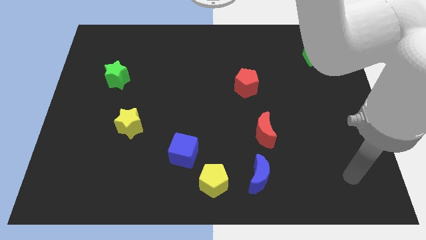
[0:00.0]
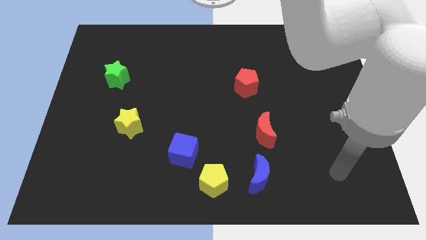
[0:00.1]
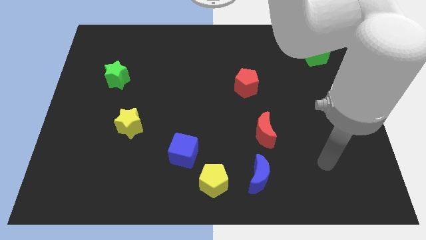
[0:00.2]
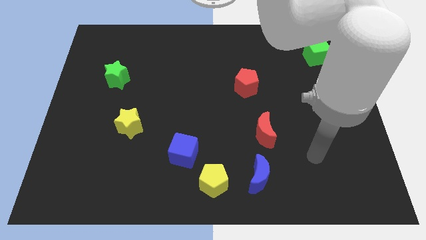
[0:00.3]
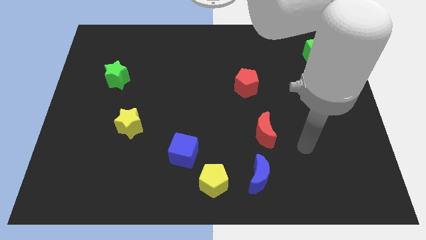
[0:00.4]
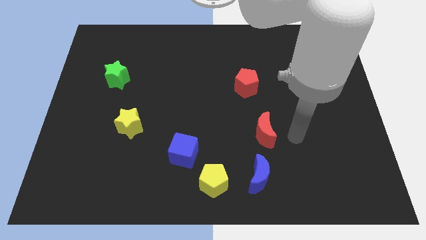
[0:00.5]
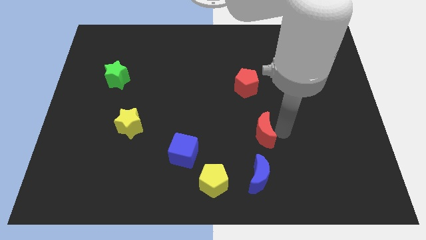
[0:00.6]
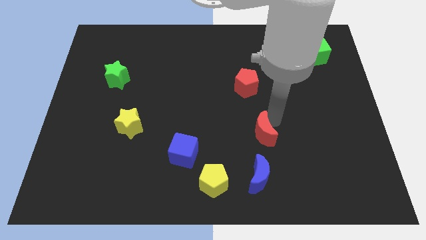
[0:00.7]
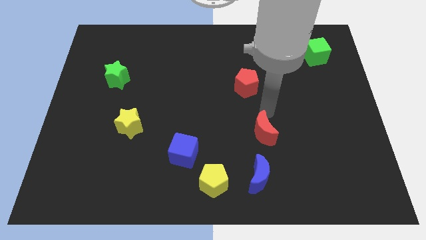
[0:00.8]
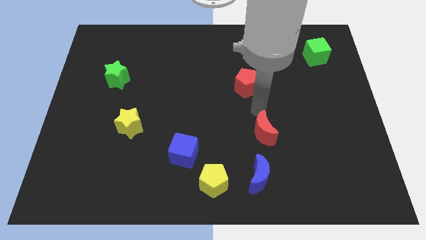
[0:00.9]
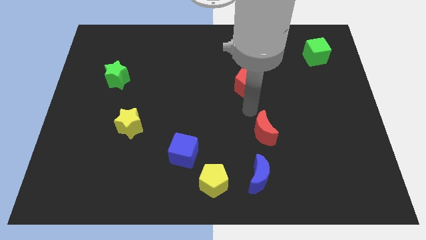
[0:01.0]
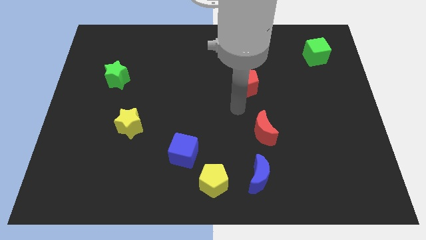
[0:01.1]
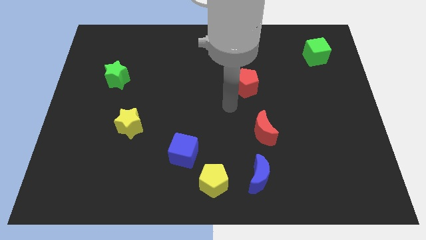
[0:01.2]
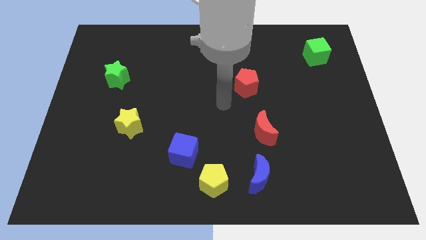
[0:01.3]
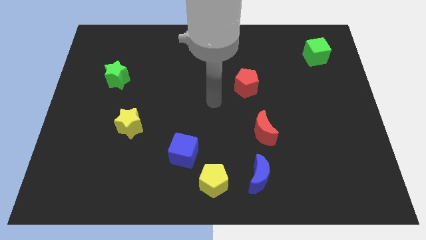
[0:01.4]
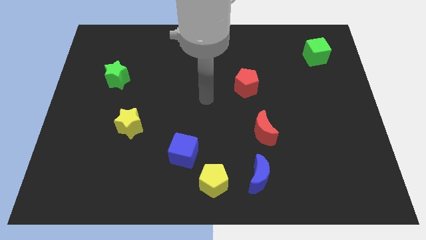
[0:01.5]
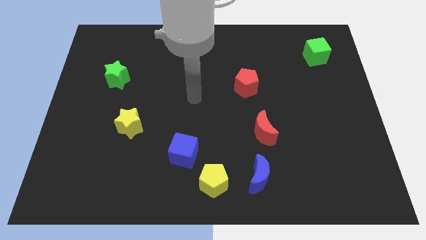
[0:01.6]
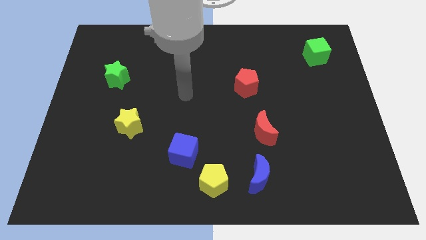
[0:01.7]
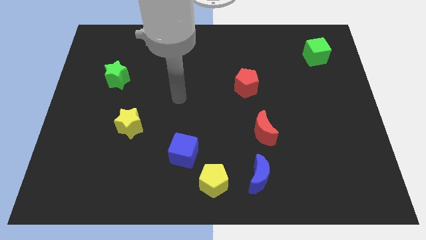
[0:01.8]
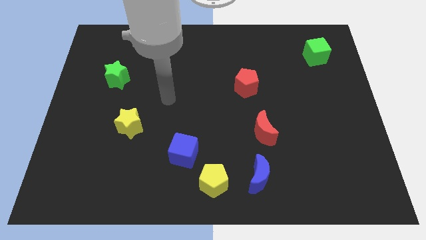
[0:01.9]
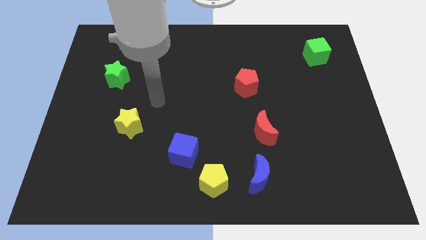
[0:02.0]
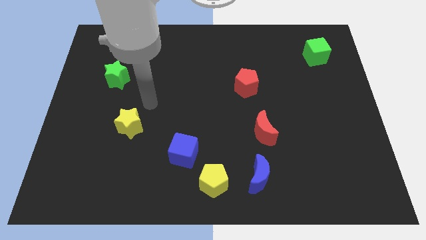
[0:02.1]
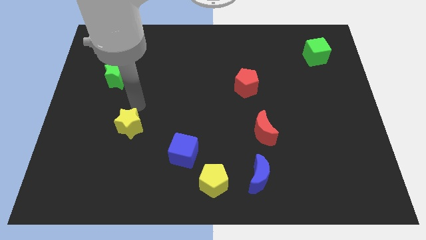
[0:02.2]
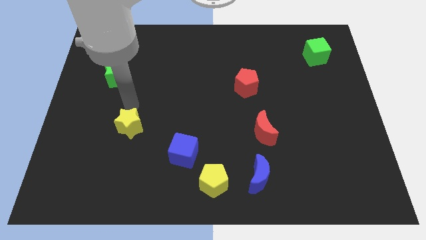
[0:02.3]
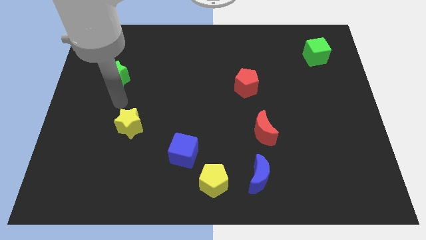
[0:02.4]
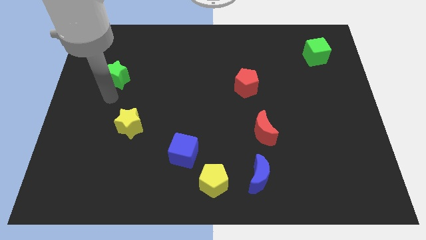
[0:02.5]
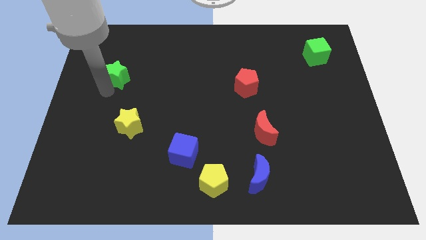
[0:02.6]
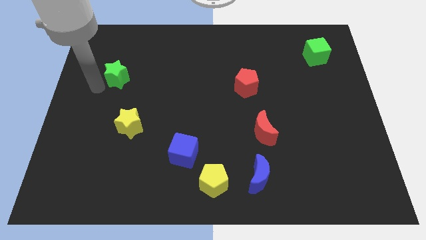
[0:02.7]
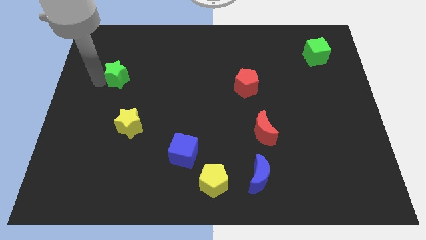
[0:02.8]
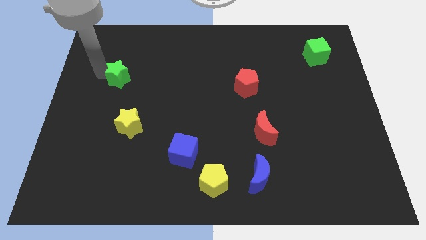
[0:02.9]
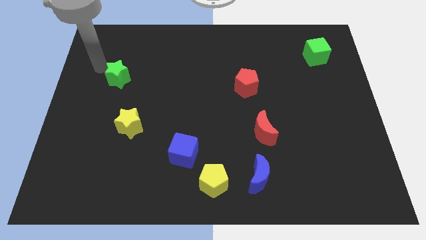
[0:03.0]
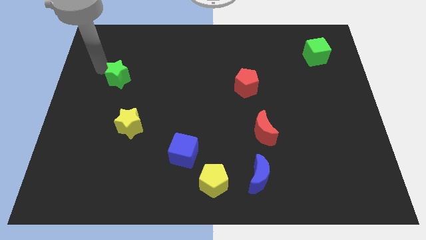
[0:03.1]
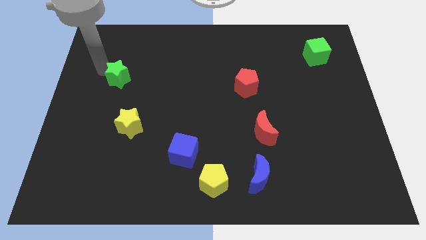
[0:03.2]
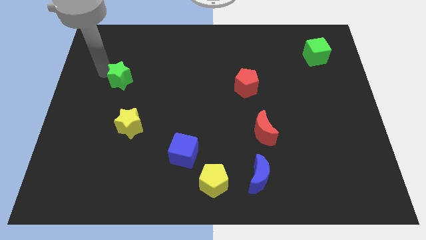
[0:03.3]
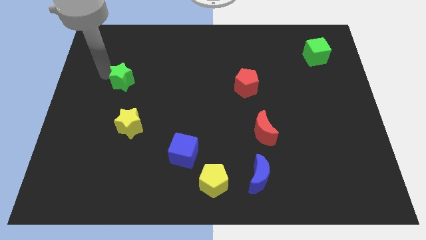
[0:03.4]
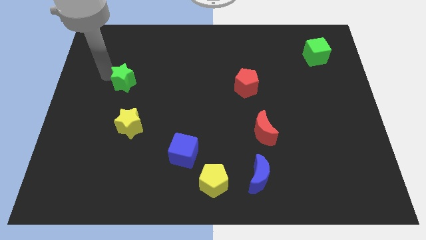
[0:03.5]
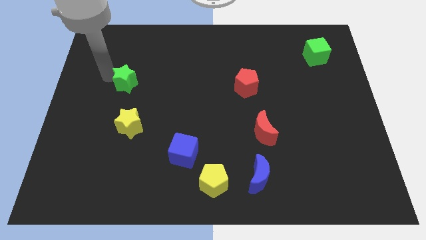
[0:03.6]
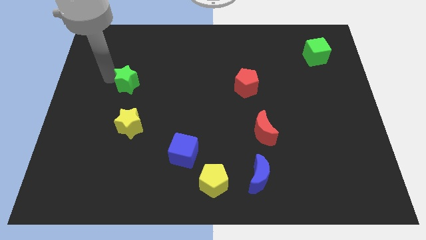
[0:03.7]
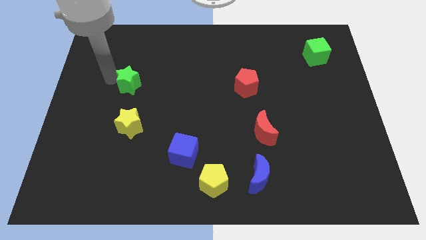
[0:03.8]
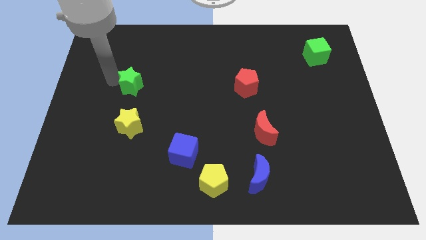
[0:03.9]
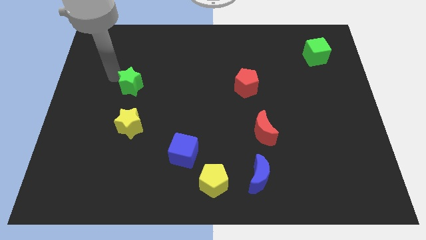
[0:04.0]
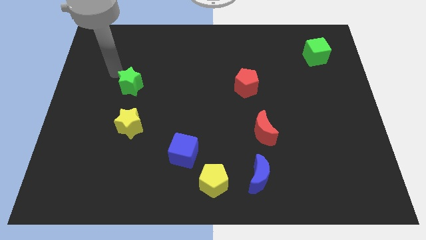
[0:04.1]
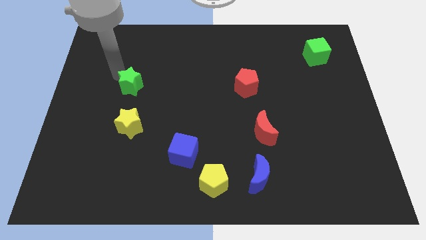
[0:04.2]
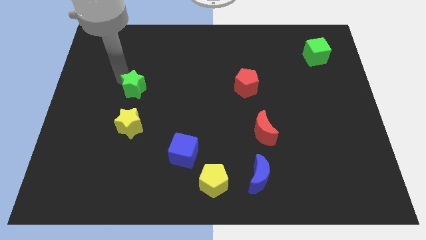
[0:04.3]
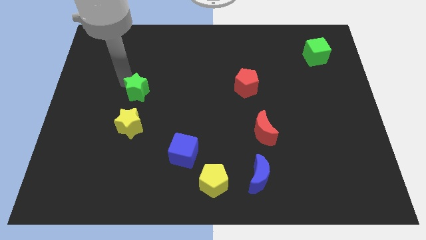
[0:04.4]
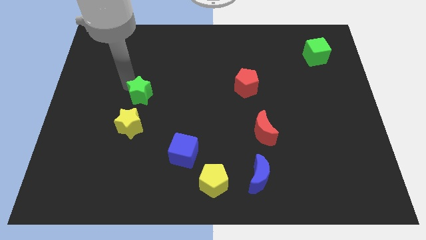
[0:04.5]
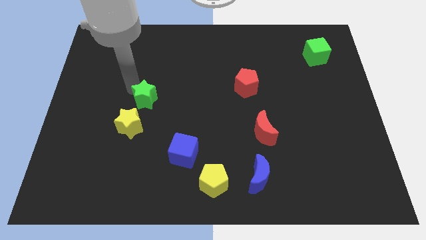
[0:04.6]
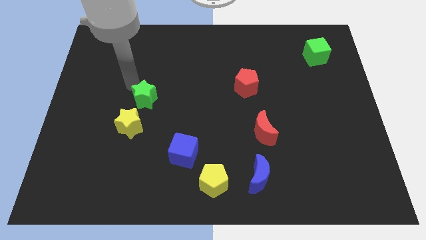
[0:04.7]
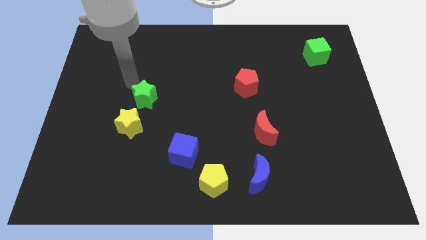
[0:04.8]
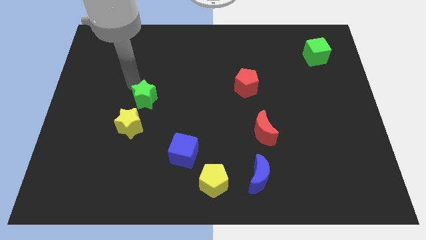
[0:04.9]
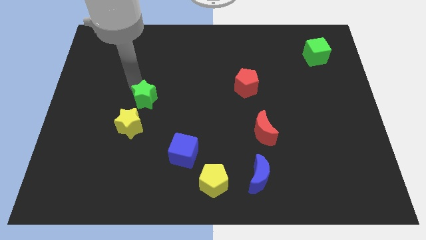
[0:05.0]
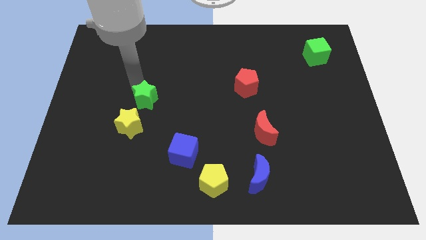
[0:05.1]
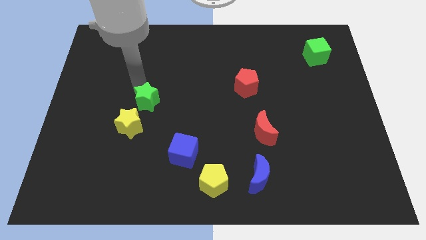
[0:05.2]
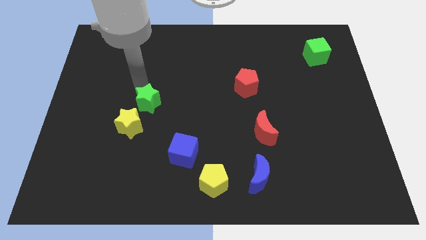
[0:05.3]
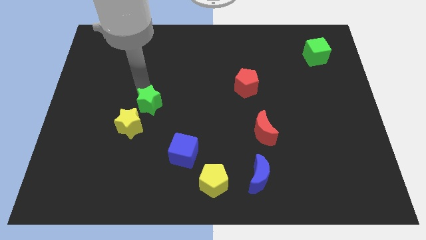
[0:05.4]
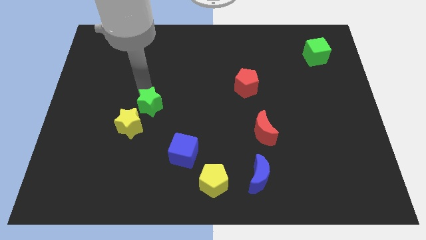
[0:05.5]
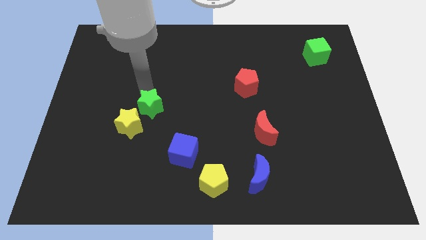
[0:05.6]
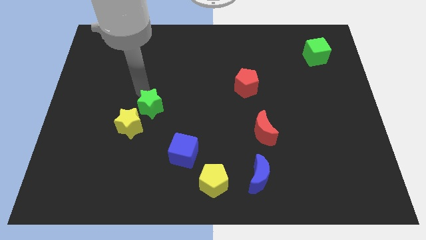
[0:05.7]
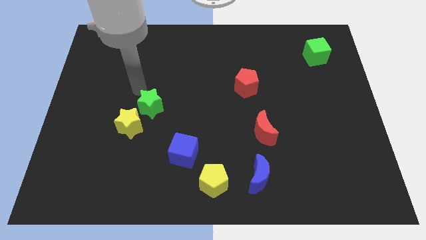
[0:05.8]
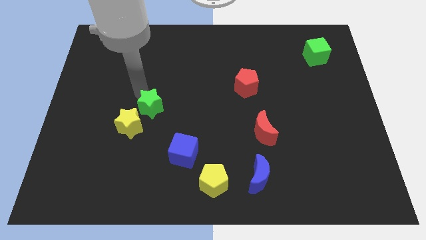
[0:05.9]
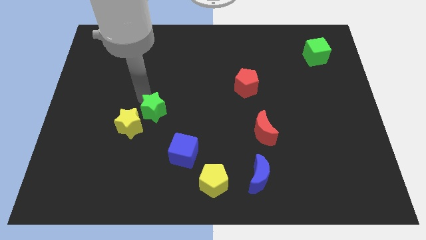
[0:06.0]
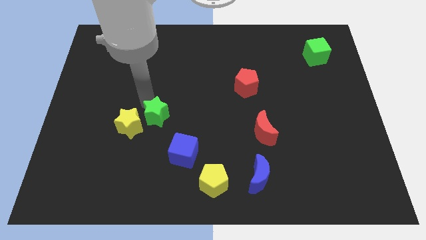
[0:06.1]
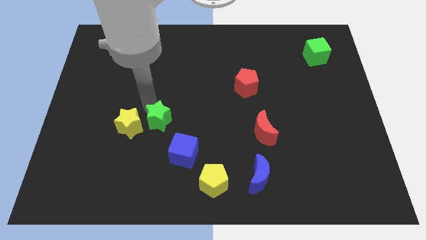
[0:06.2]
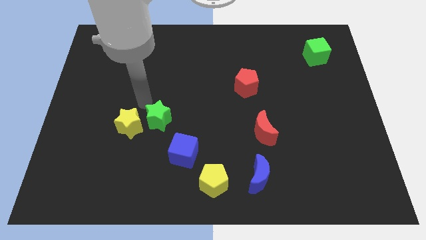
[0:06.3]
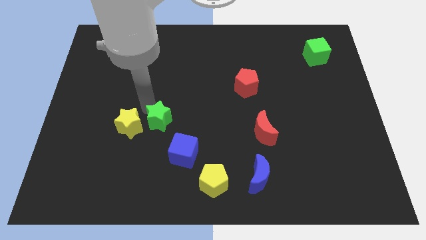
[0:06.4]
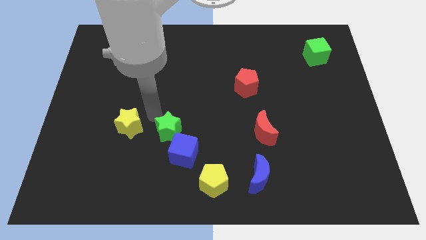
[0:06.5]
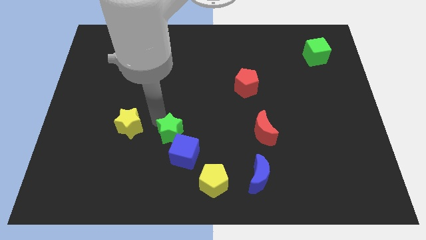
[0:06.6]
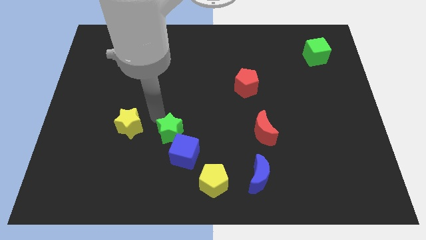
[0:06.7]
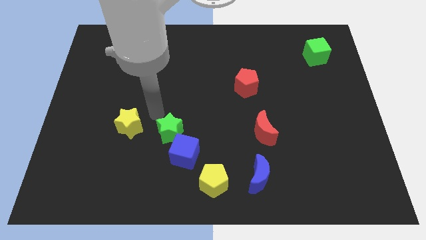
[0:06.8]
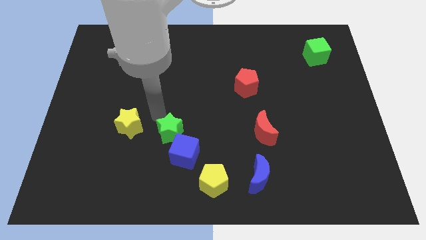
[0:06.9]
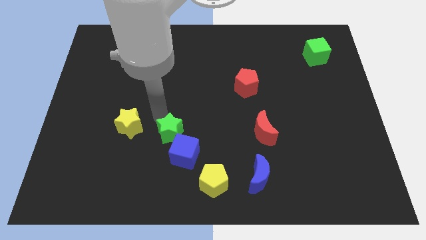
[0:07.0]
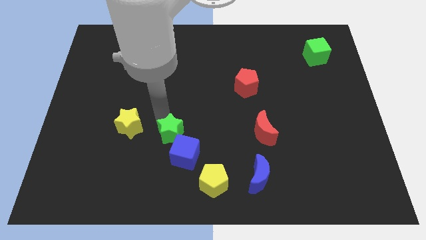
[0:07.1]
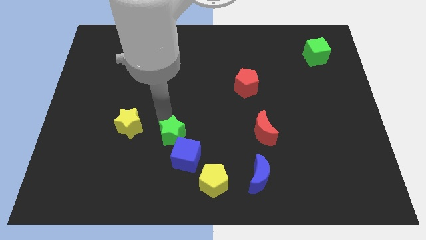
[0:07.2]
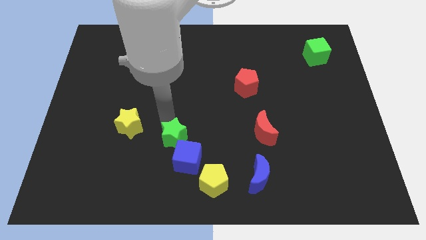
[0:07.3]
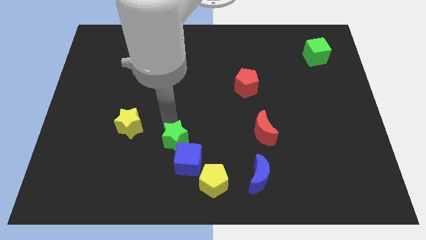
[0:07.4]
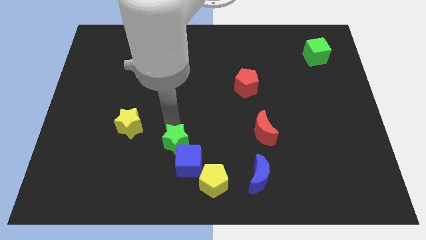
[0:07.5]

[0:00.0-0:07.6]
slide the green star to the blue cube
